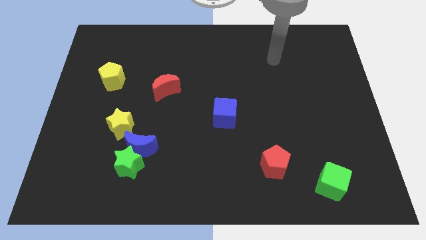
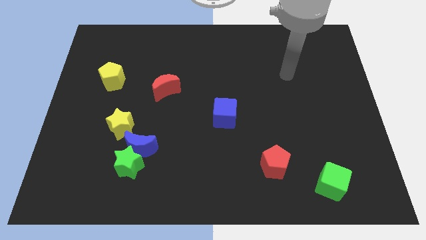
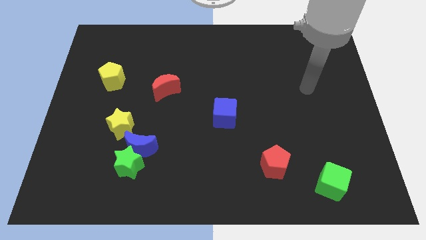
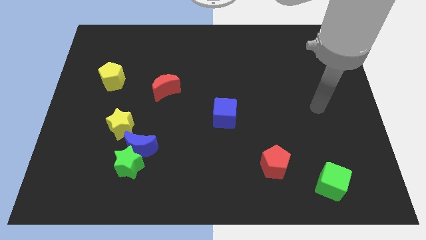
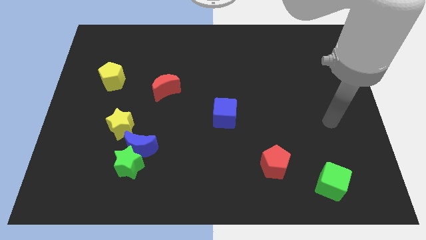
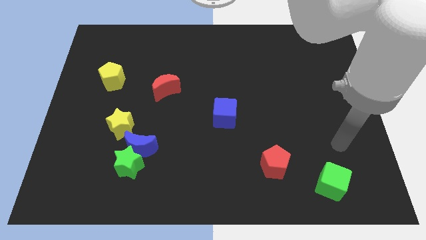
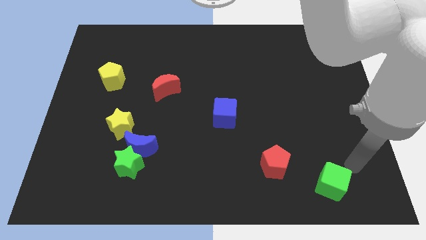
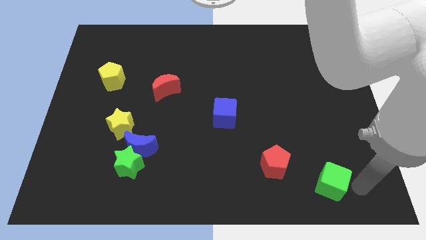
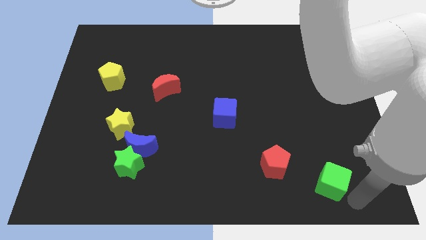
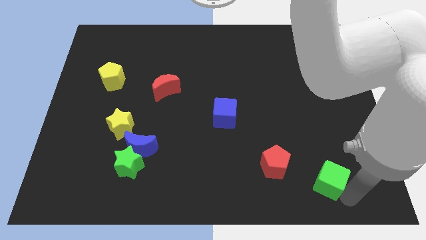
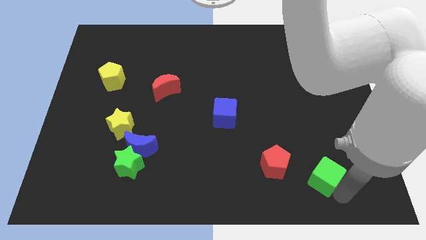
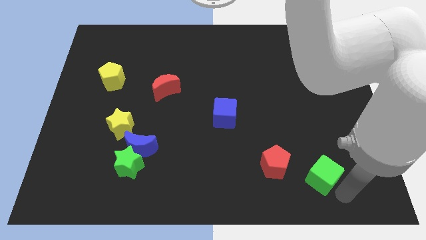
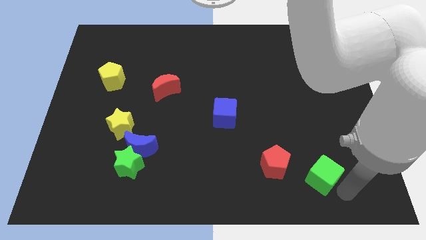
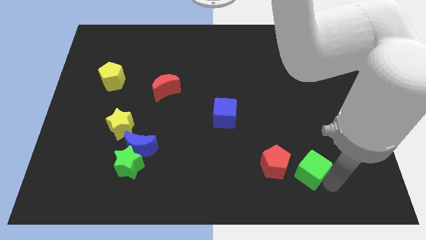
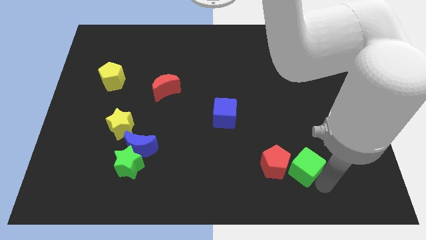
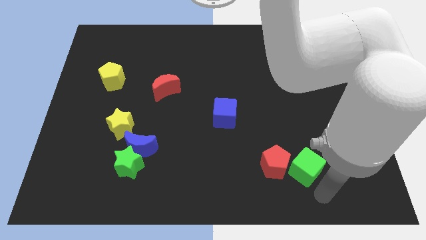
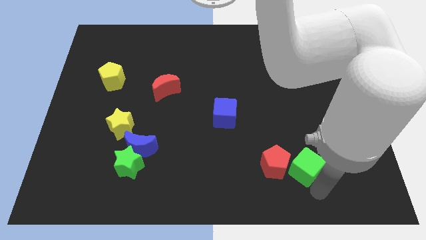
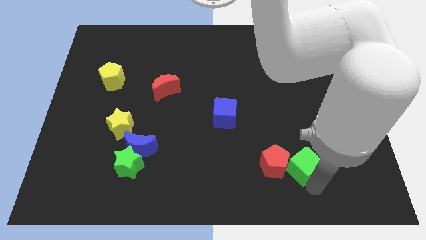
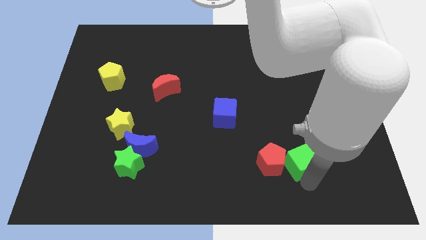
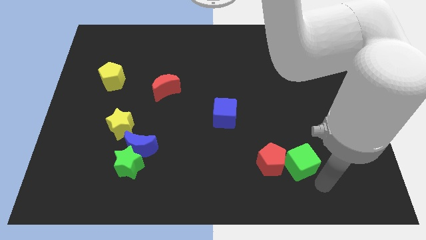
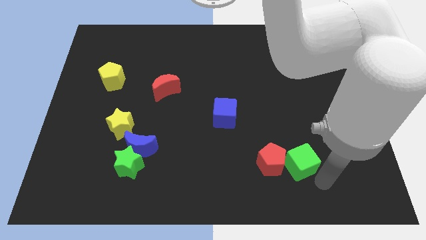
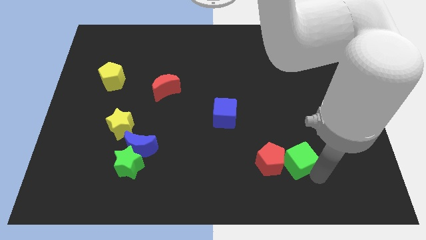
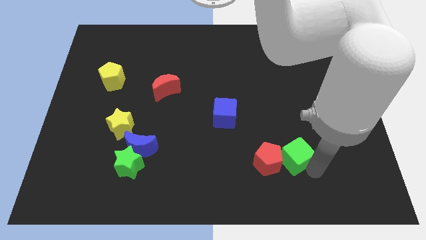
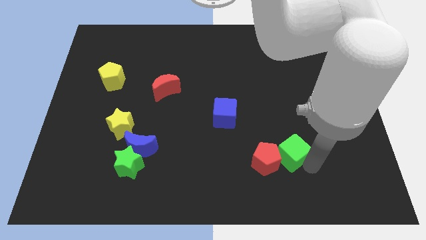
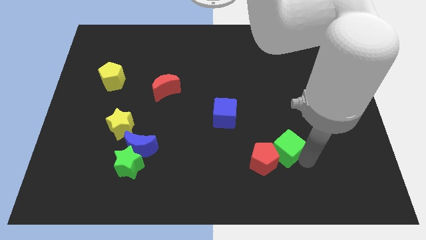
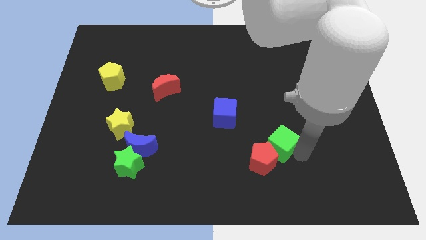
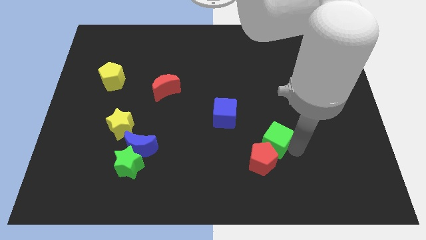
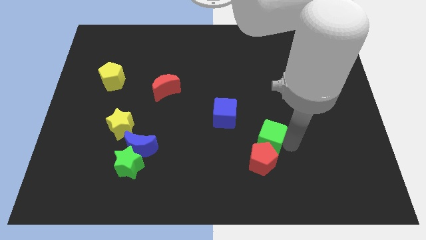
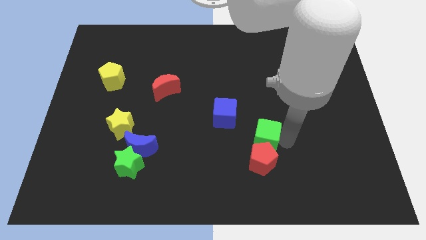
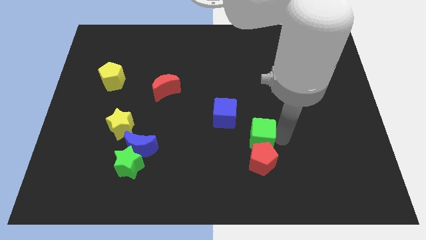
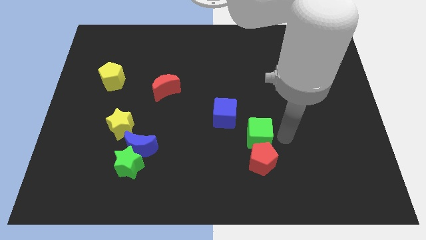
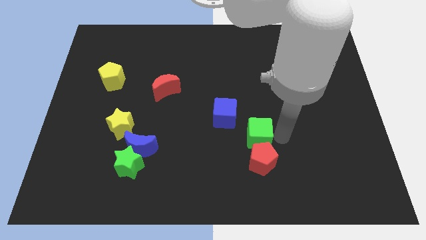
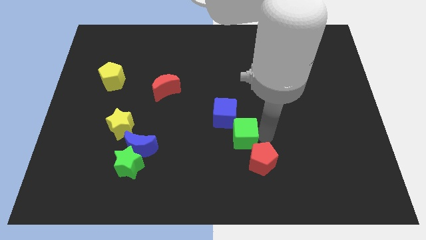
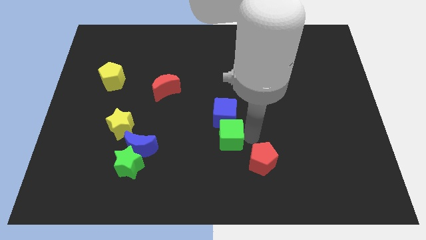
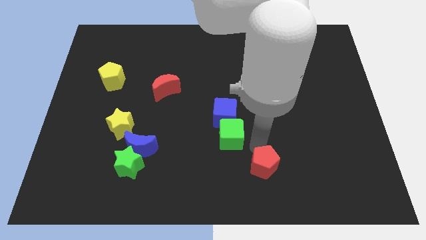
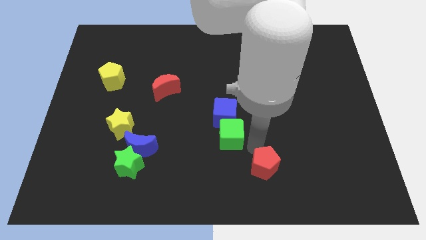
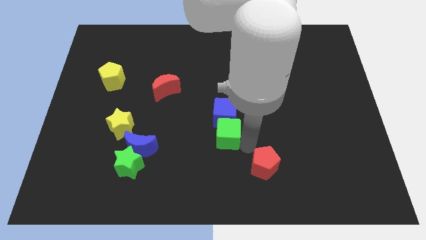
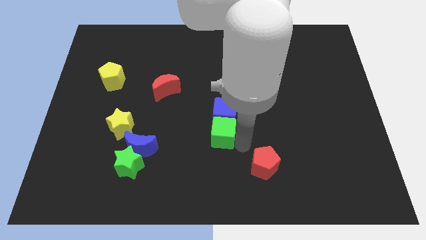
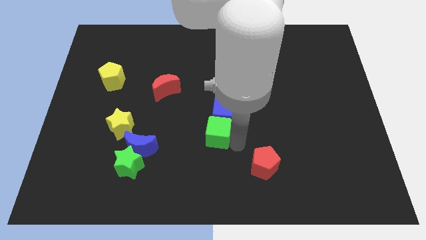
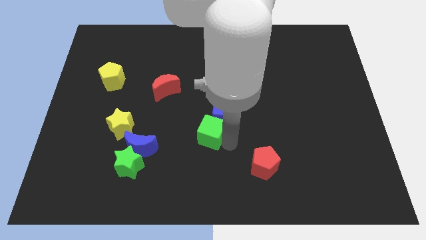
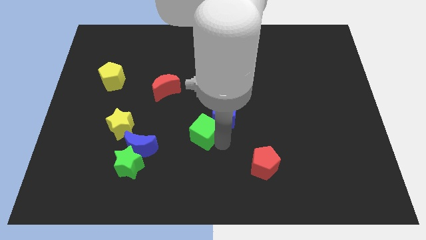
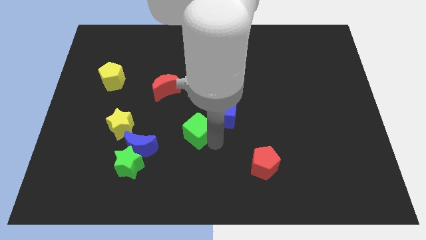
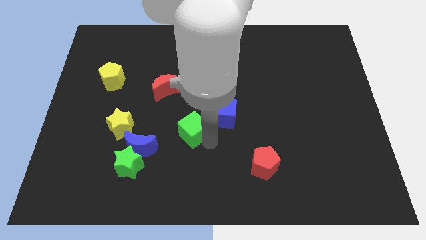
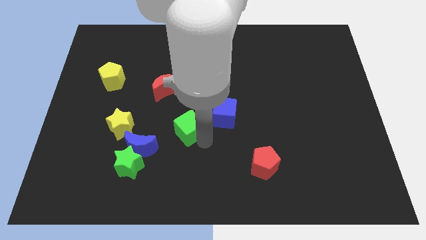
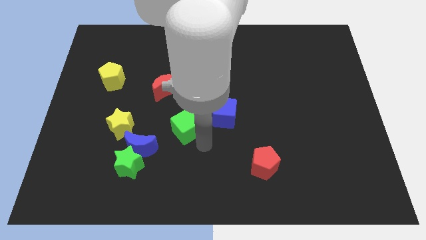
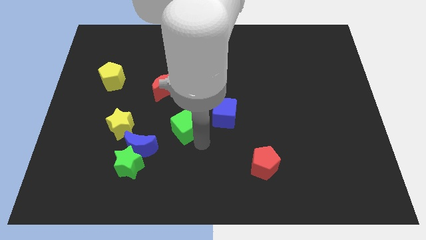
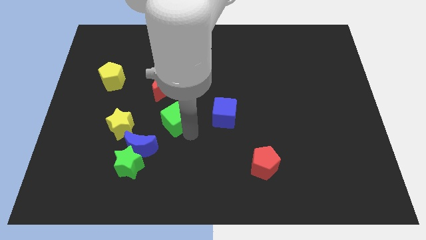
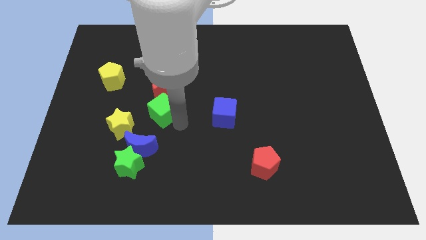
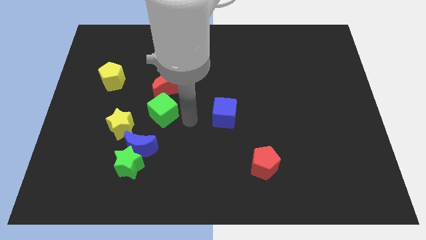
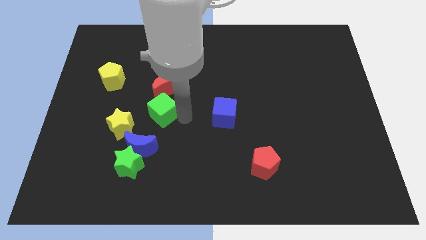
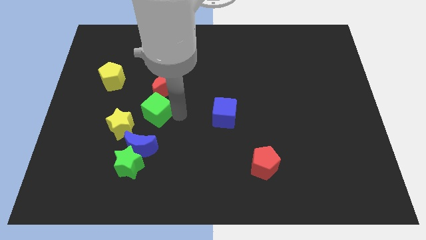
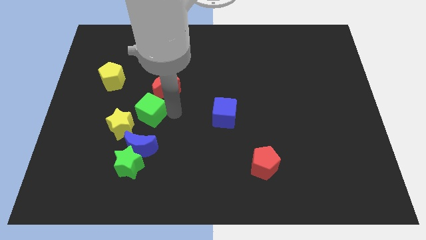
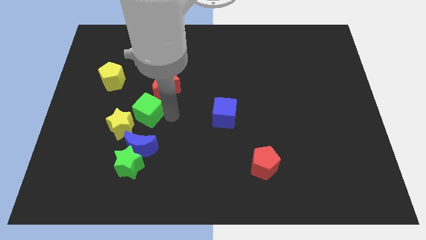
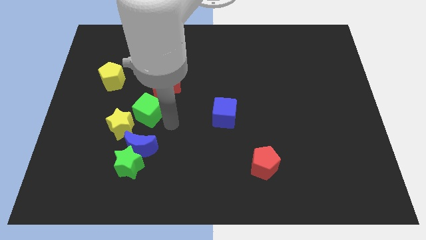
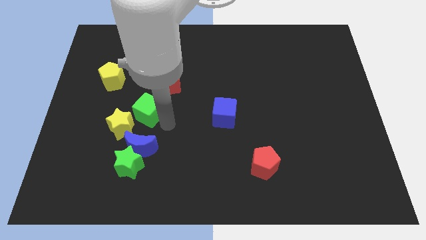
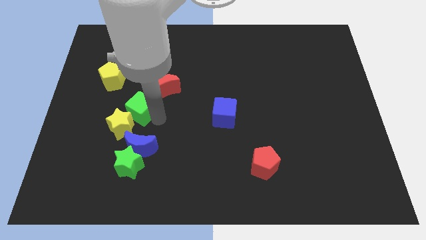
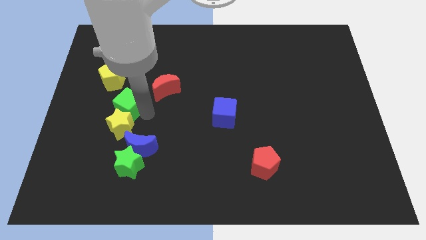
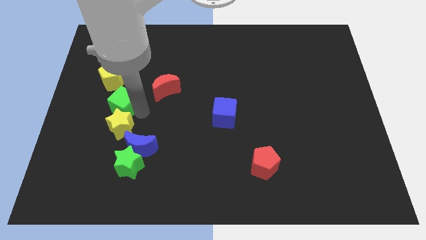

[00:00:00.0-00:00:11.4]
put the green cube to the bottom of the yellow pentagon

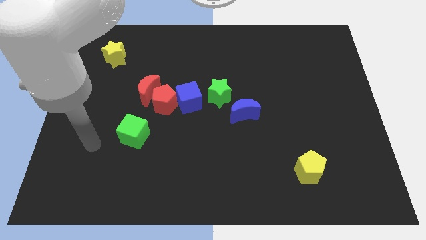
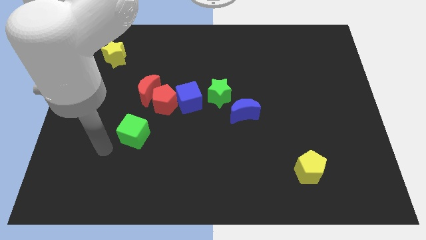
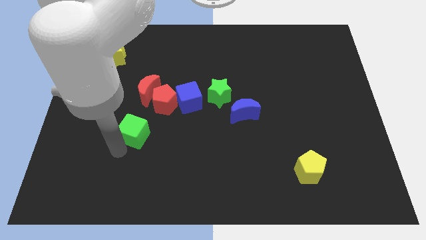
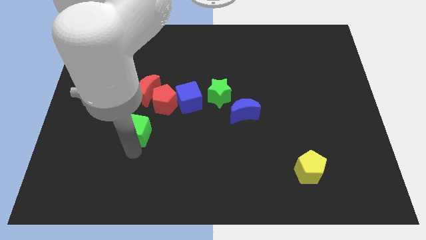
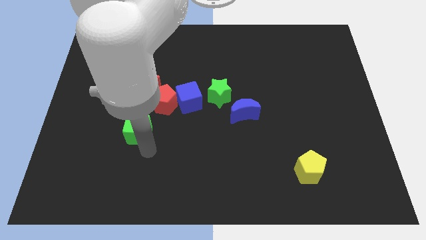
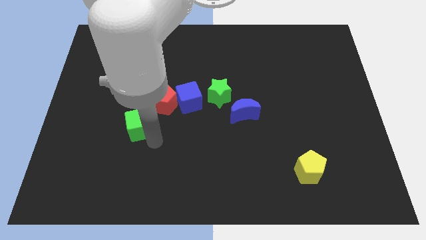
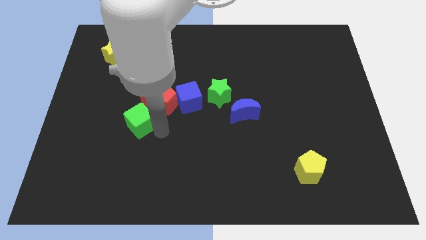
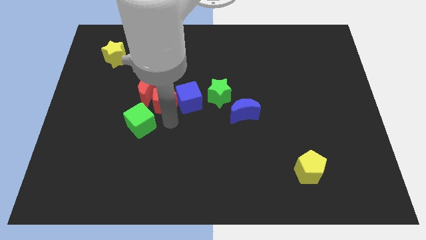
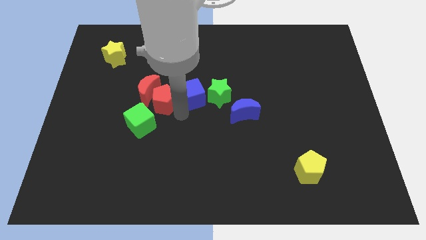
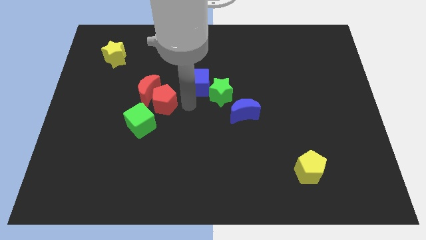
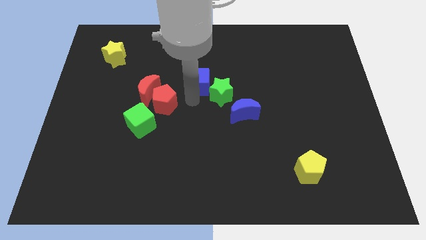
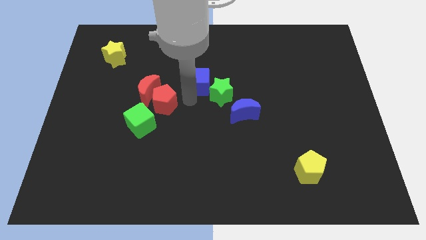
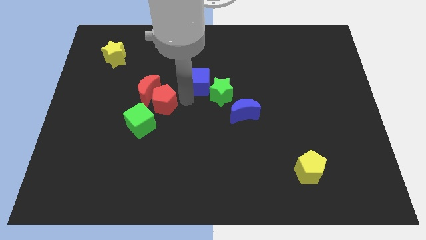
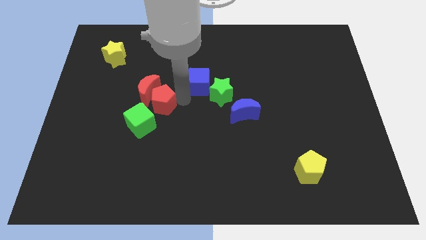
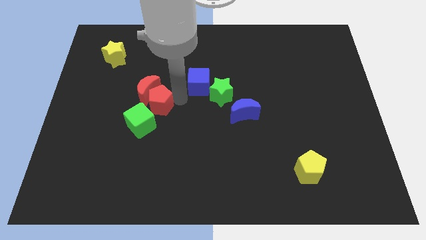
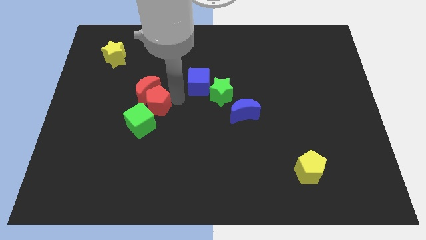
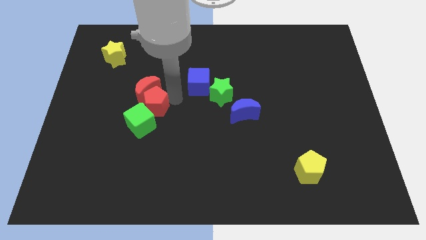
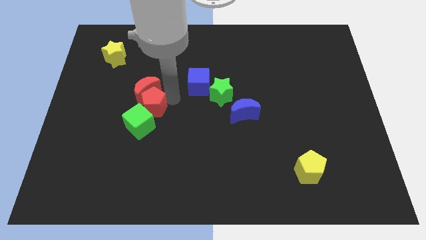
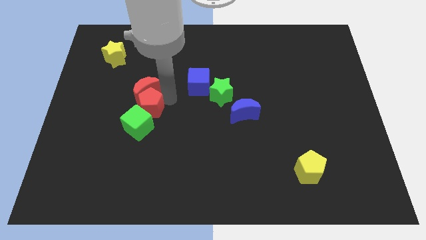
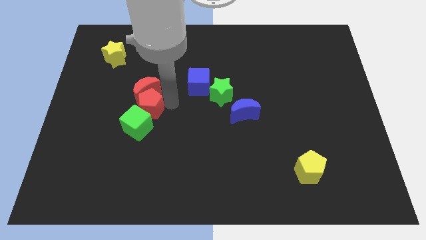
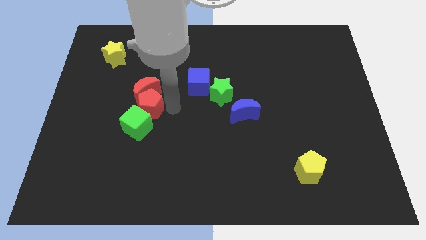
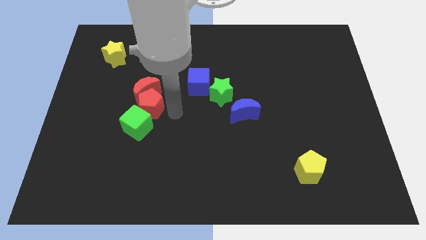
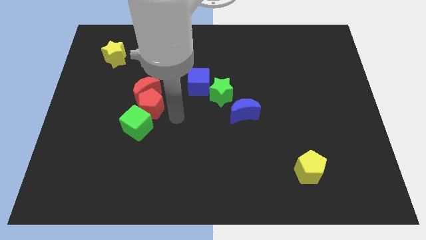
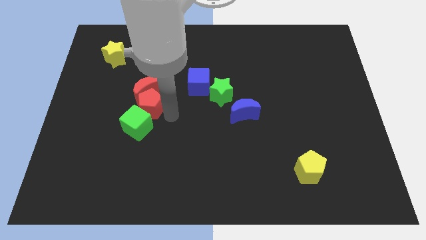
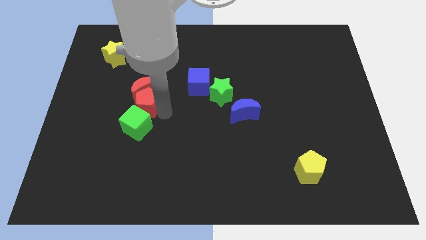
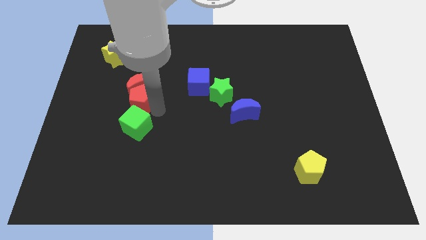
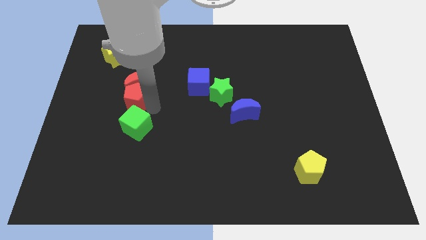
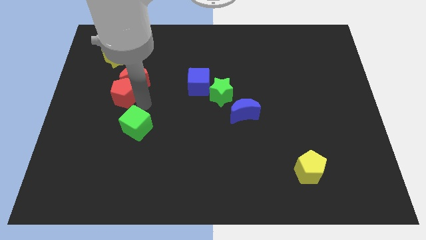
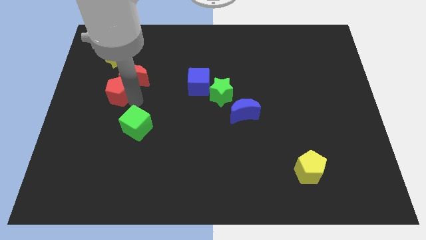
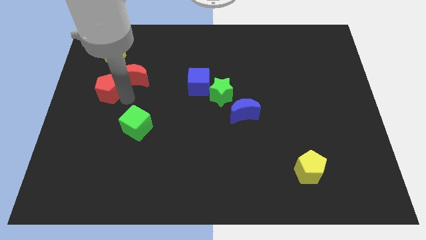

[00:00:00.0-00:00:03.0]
move the red pentagon to the left of the red moon

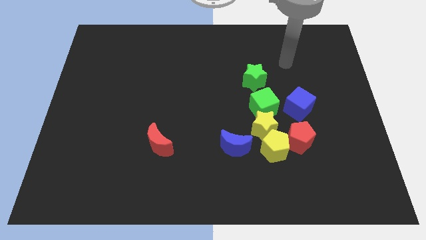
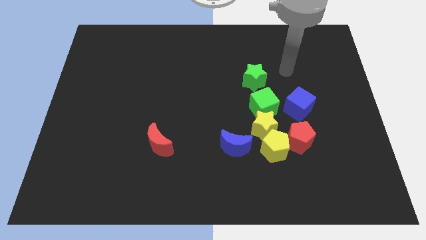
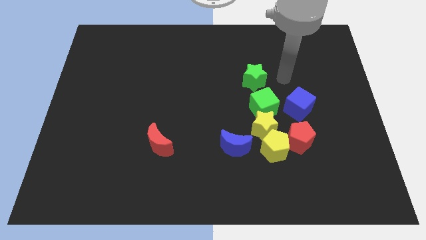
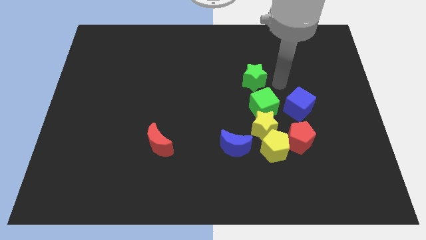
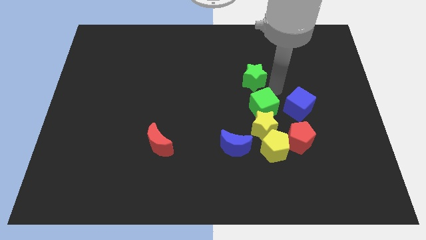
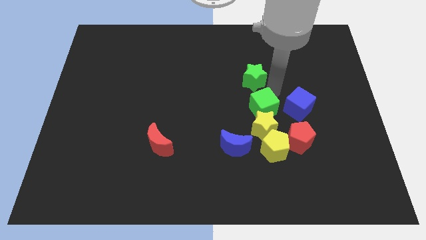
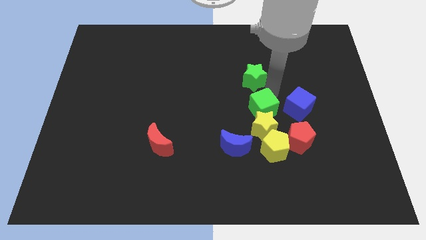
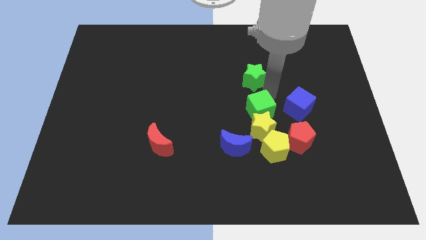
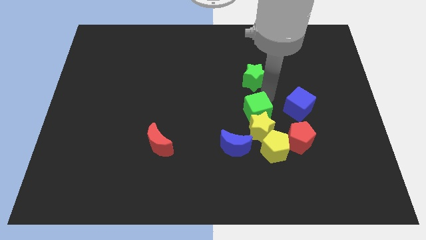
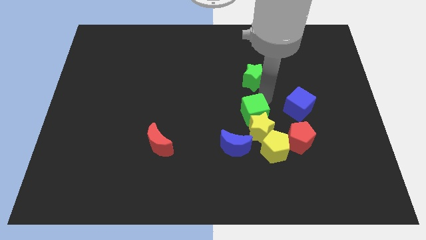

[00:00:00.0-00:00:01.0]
push the green cube to the top left side of the yellow pentagon
